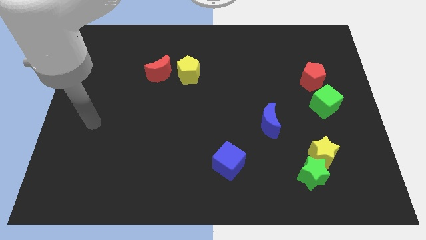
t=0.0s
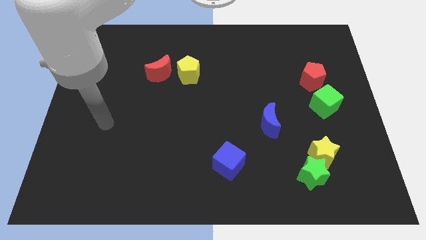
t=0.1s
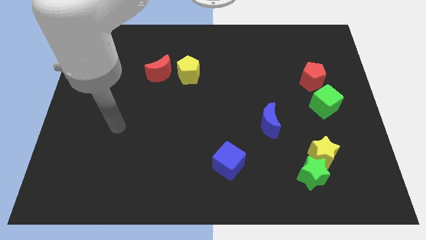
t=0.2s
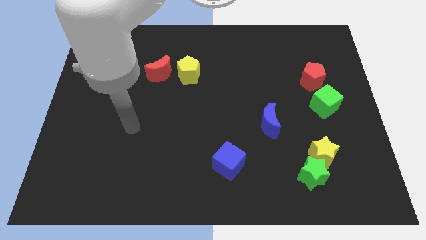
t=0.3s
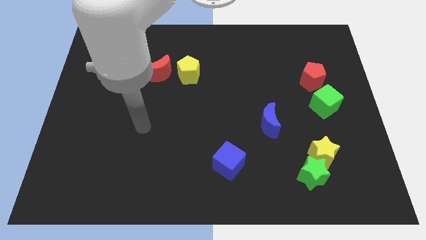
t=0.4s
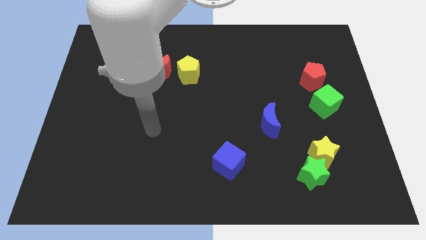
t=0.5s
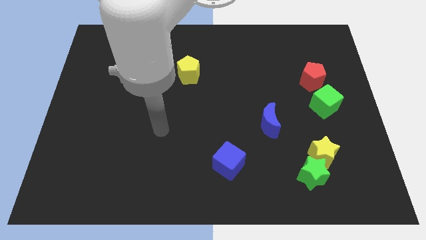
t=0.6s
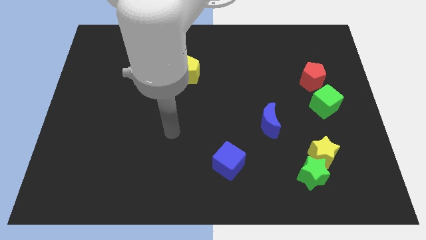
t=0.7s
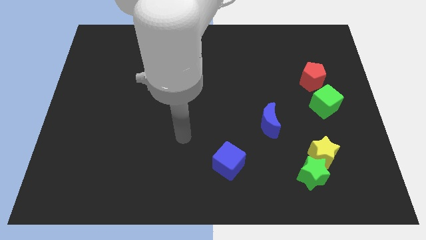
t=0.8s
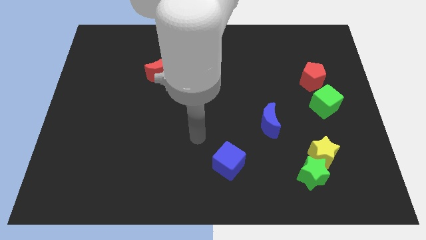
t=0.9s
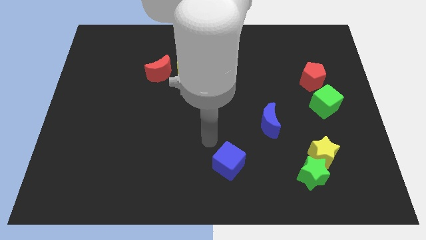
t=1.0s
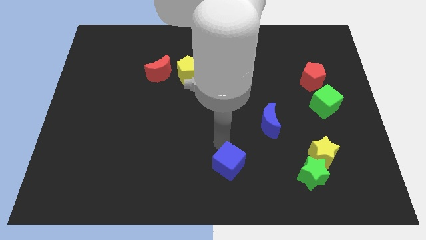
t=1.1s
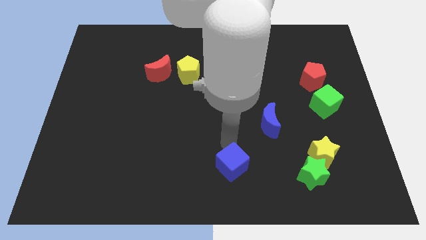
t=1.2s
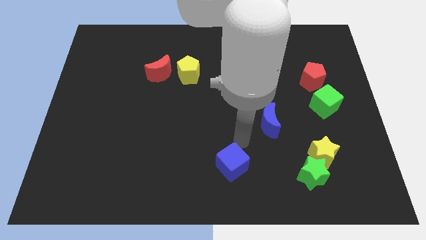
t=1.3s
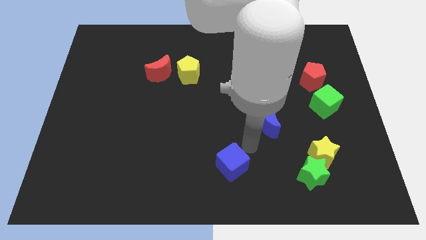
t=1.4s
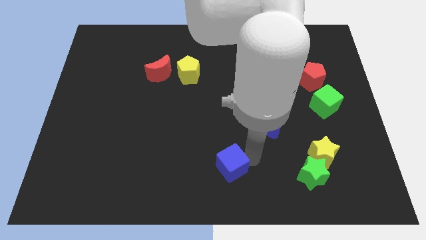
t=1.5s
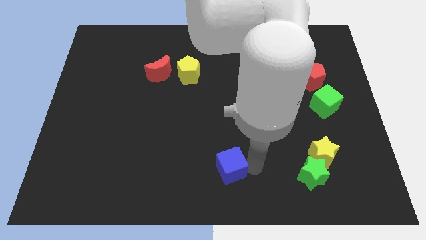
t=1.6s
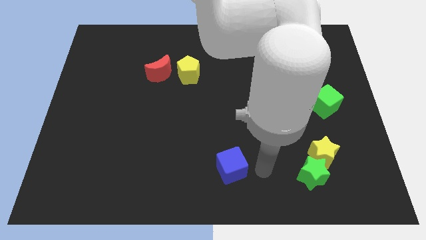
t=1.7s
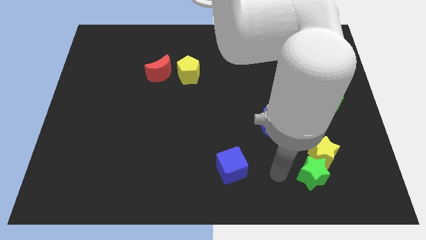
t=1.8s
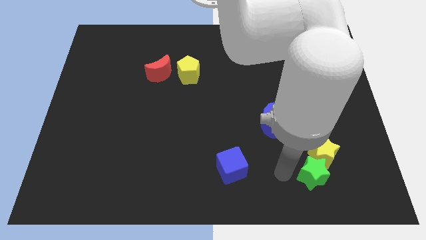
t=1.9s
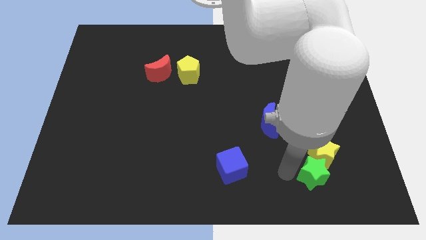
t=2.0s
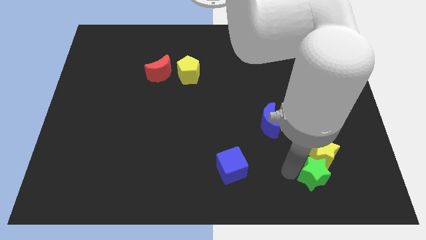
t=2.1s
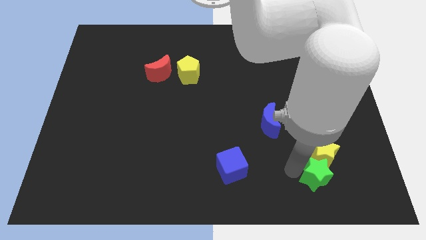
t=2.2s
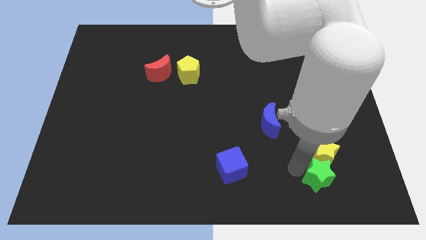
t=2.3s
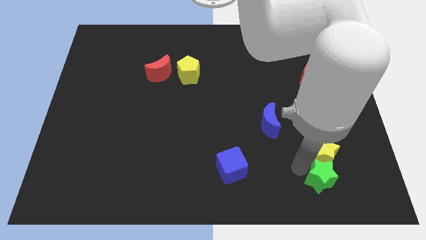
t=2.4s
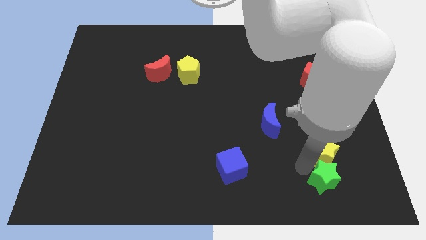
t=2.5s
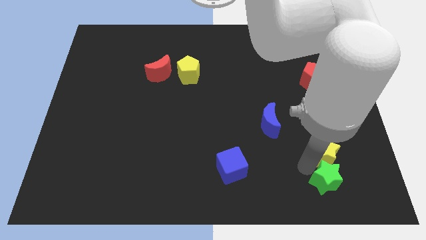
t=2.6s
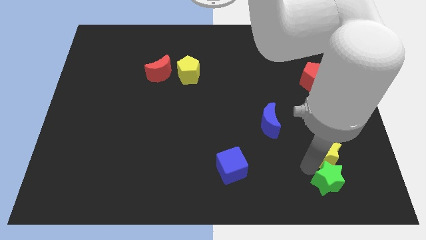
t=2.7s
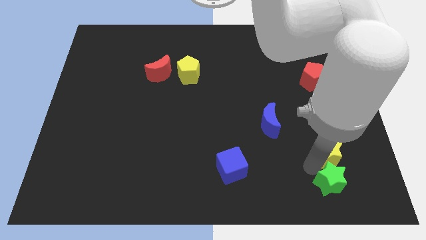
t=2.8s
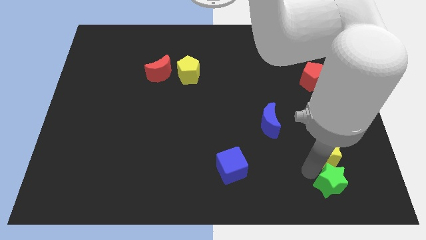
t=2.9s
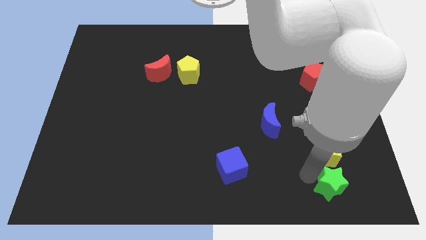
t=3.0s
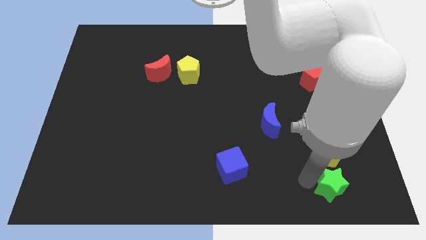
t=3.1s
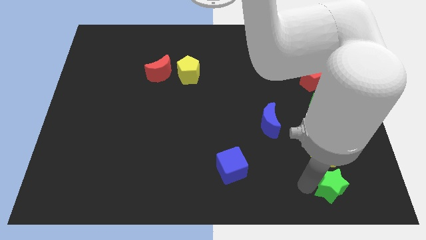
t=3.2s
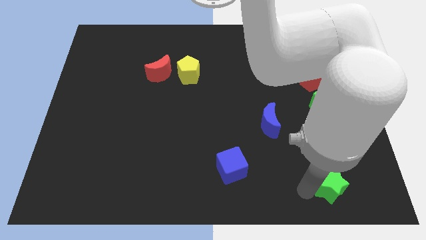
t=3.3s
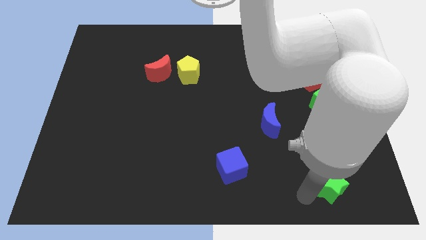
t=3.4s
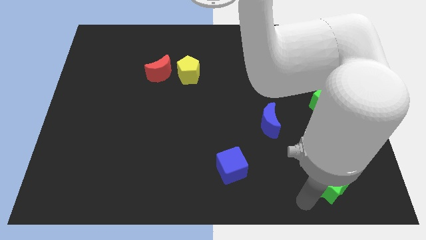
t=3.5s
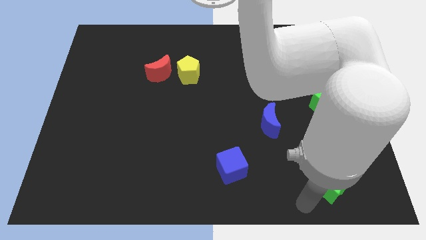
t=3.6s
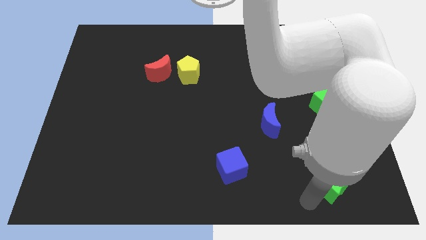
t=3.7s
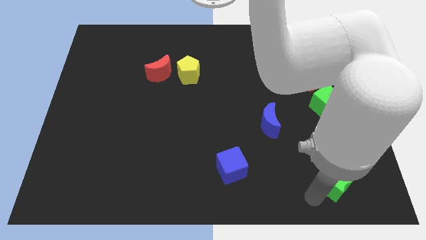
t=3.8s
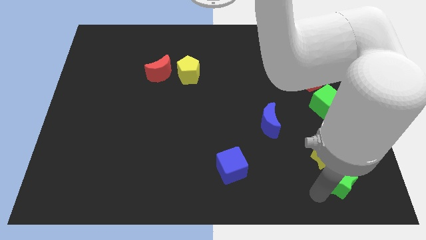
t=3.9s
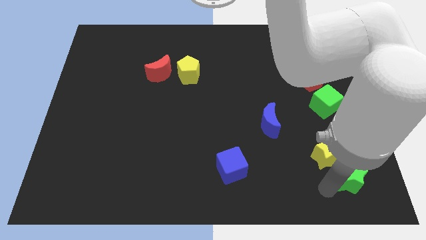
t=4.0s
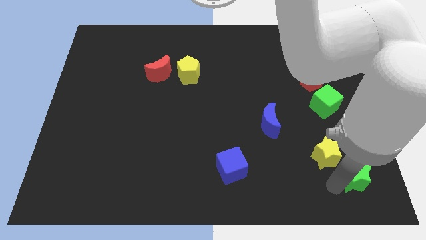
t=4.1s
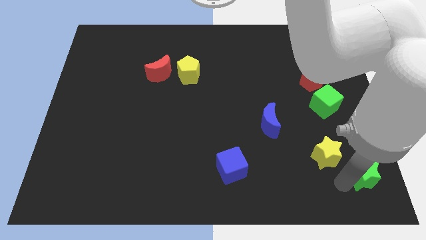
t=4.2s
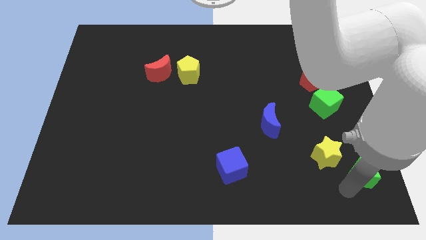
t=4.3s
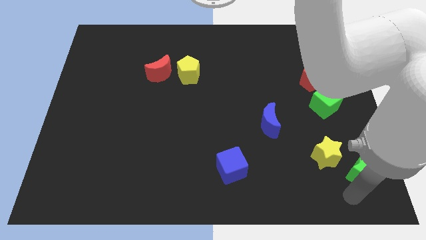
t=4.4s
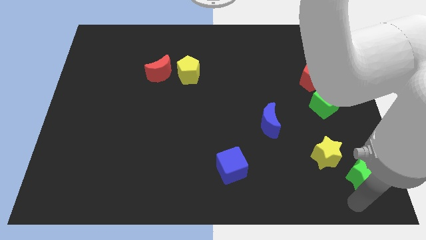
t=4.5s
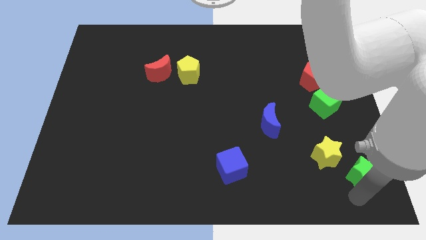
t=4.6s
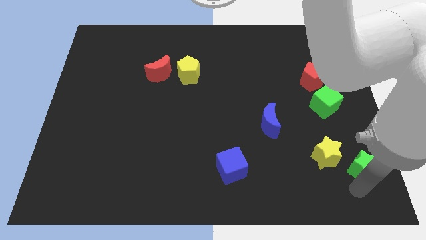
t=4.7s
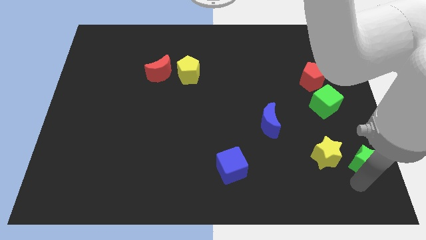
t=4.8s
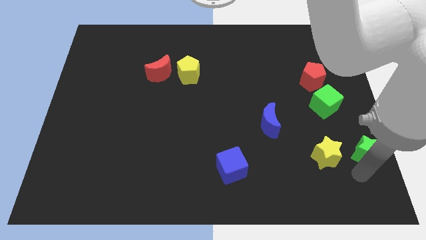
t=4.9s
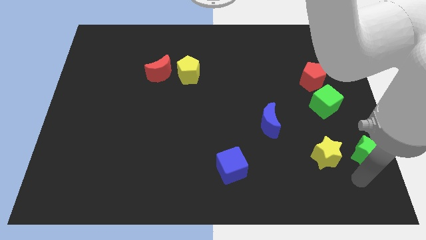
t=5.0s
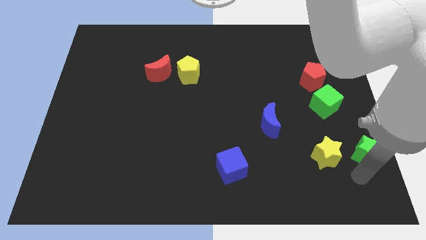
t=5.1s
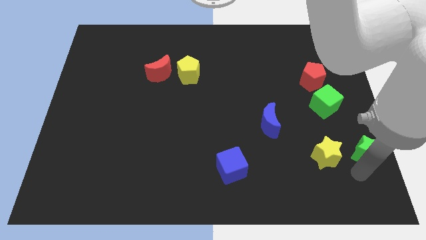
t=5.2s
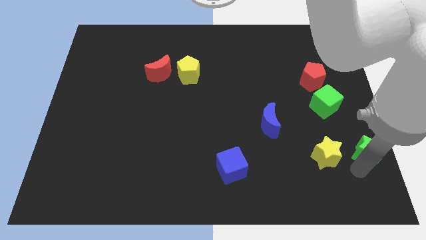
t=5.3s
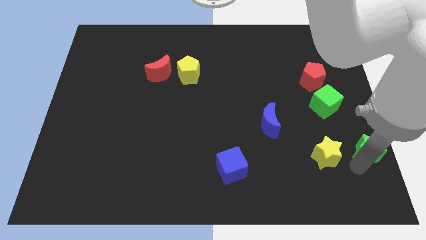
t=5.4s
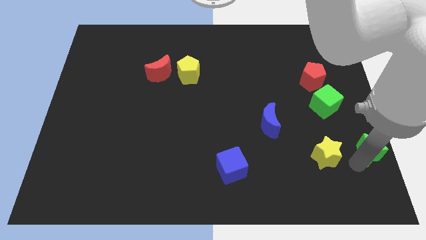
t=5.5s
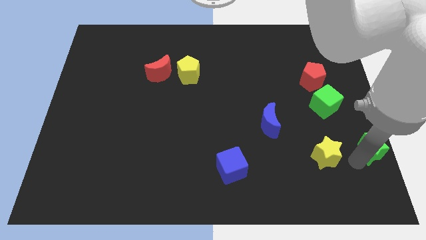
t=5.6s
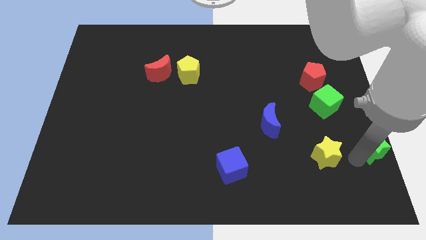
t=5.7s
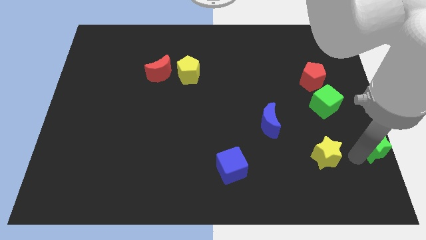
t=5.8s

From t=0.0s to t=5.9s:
push the green star to the center right
